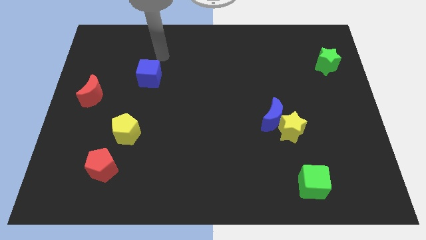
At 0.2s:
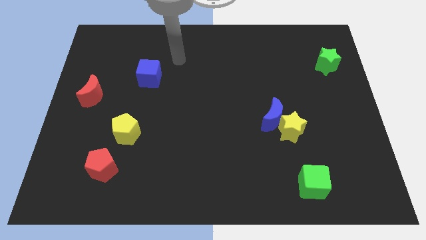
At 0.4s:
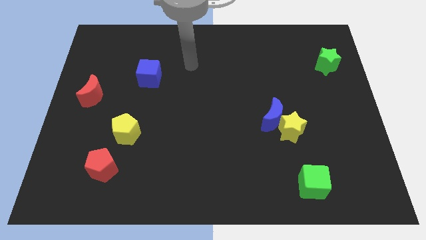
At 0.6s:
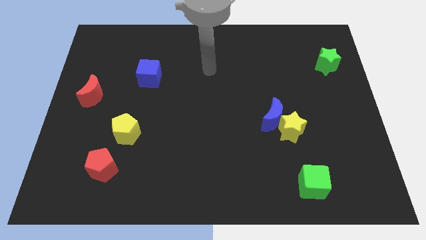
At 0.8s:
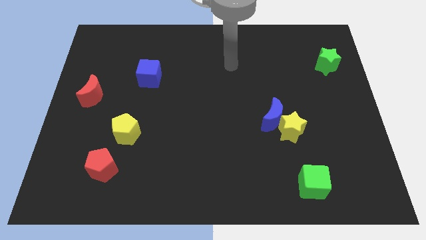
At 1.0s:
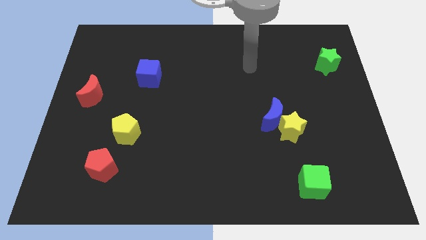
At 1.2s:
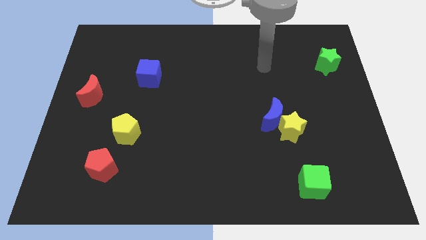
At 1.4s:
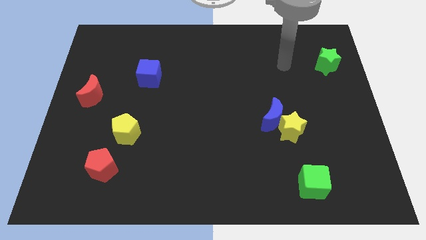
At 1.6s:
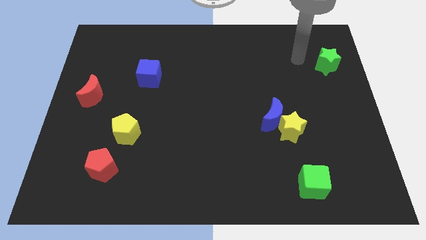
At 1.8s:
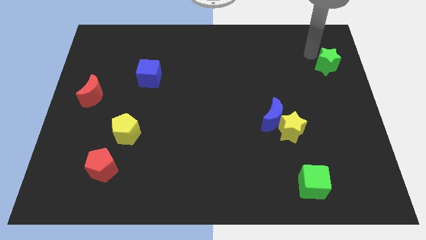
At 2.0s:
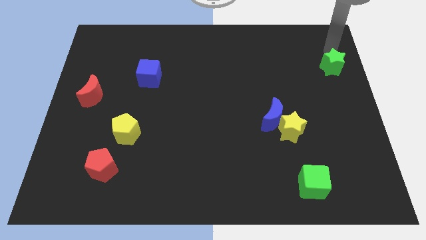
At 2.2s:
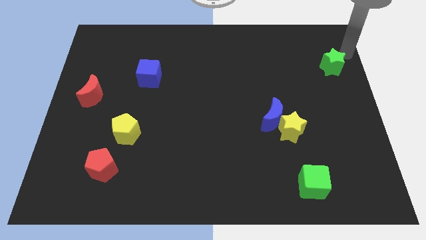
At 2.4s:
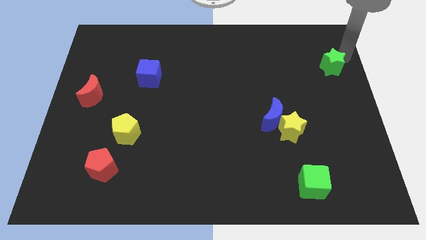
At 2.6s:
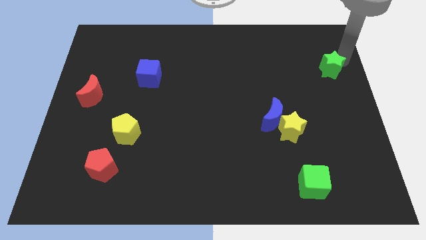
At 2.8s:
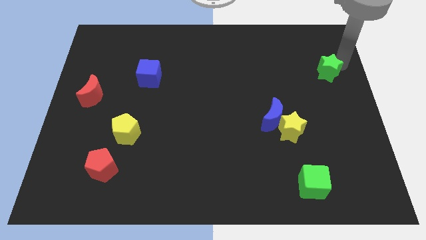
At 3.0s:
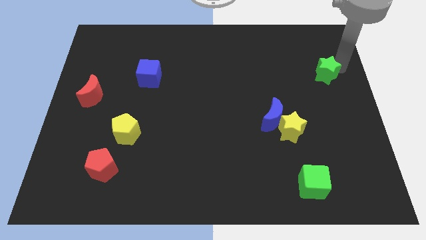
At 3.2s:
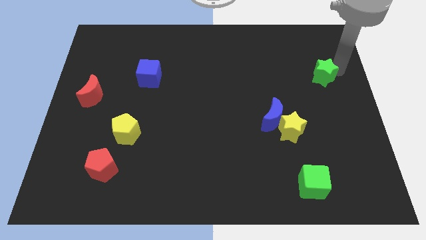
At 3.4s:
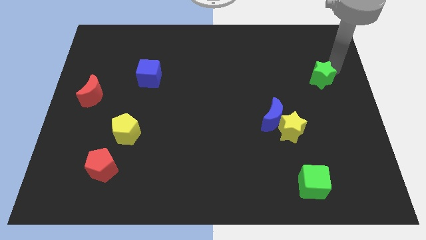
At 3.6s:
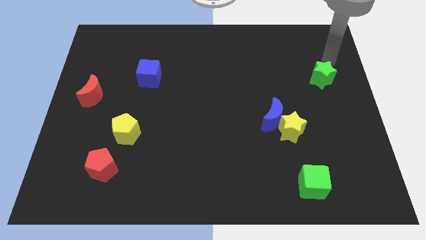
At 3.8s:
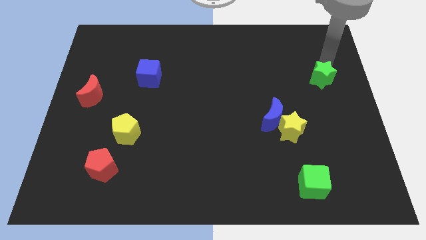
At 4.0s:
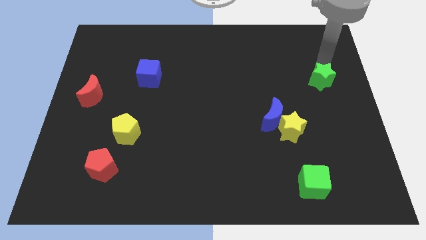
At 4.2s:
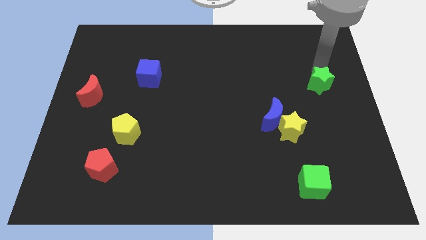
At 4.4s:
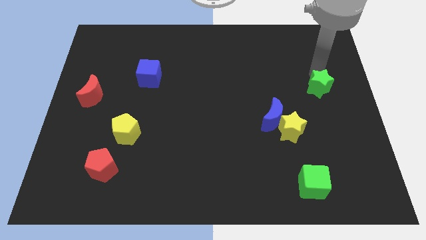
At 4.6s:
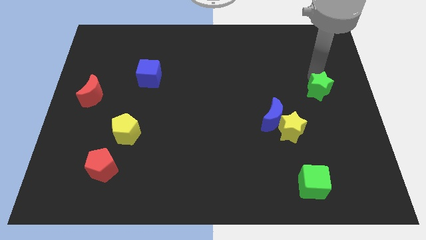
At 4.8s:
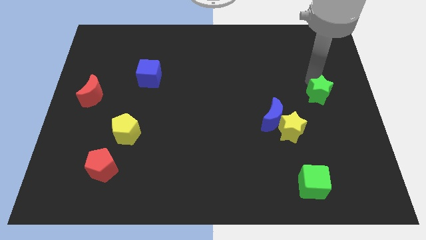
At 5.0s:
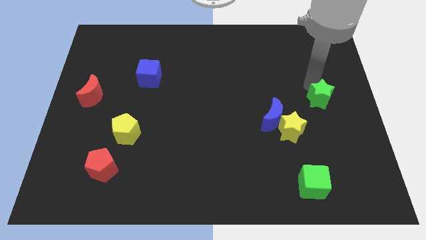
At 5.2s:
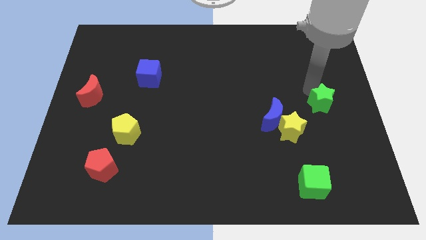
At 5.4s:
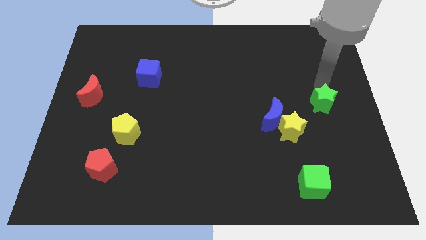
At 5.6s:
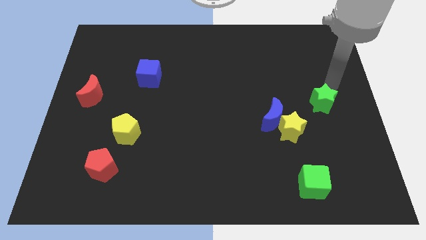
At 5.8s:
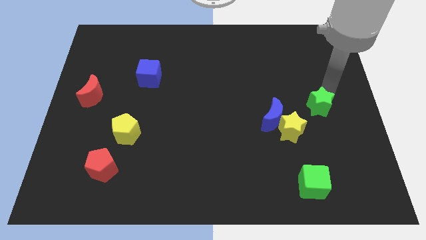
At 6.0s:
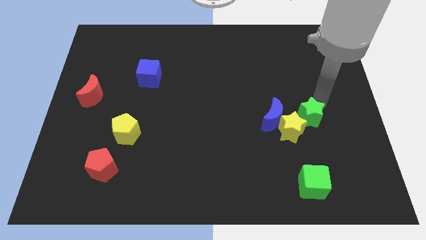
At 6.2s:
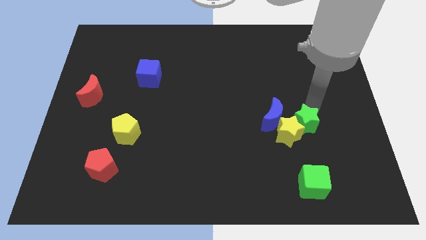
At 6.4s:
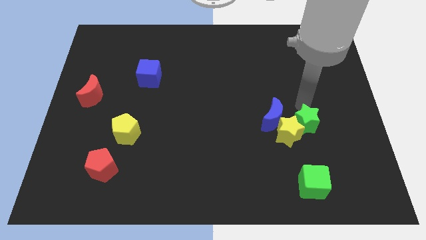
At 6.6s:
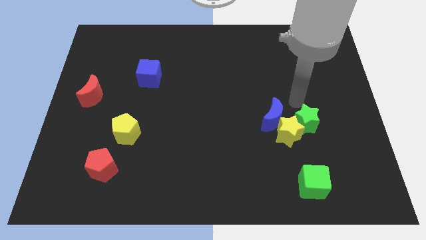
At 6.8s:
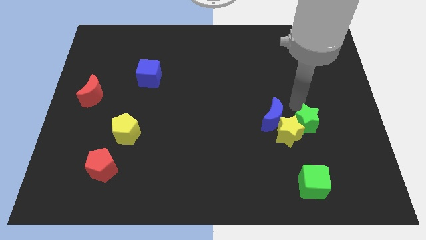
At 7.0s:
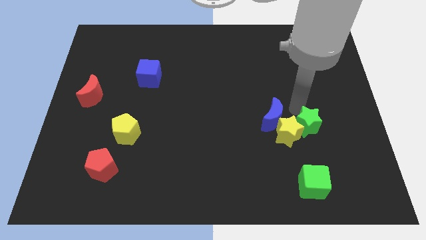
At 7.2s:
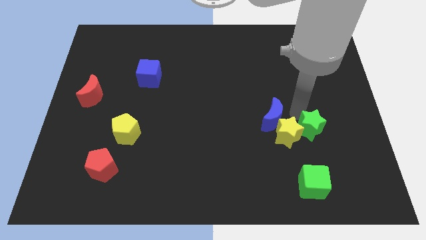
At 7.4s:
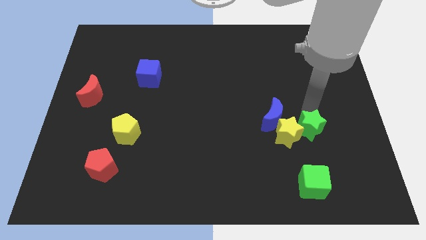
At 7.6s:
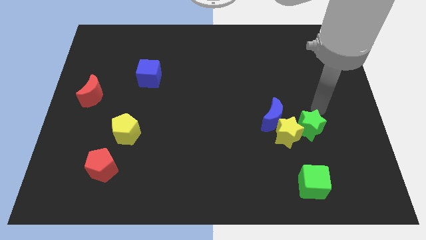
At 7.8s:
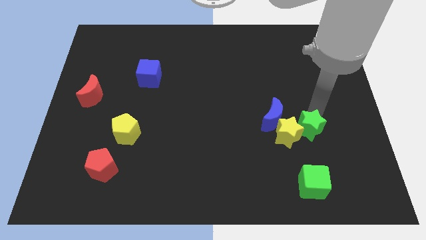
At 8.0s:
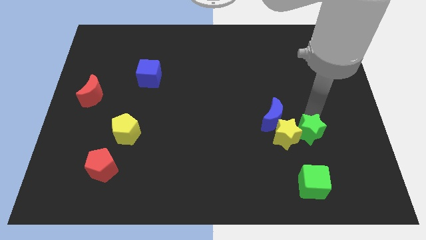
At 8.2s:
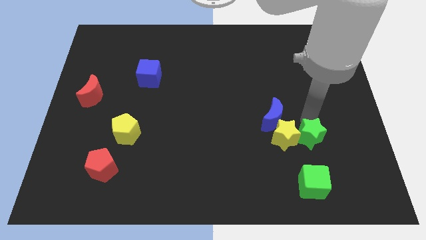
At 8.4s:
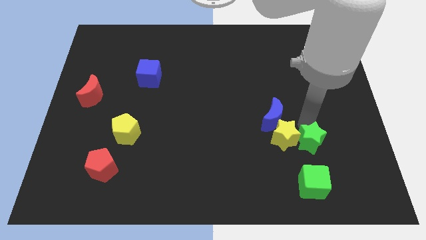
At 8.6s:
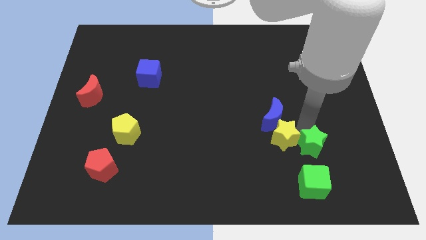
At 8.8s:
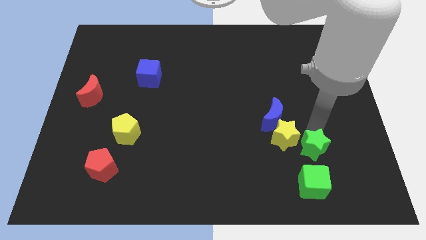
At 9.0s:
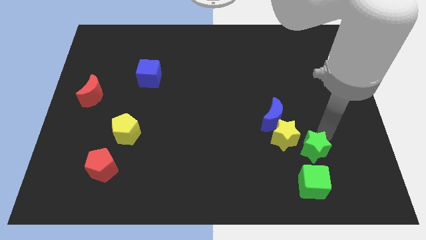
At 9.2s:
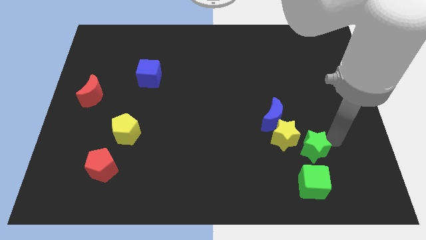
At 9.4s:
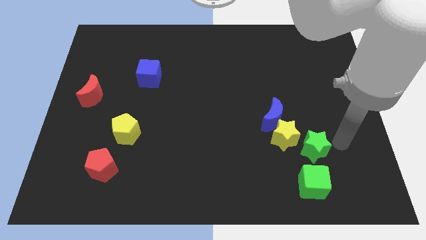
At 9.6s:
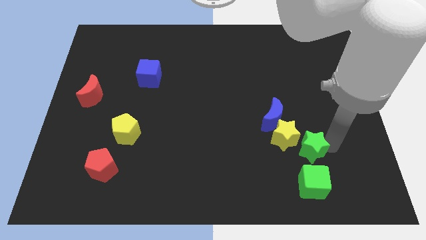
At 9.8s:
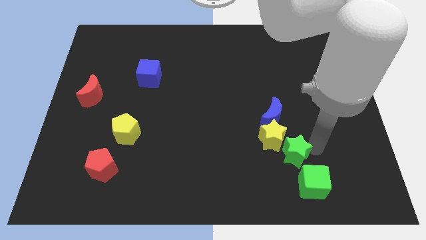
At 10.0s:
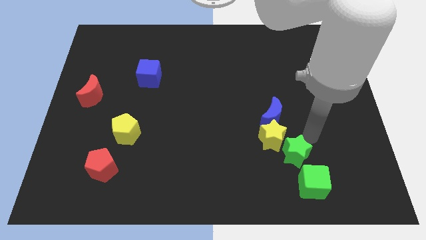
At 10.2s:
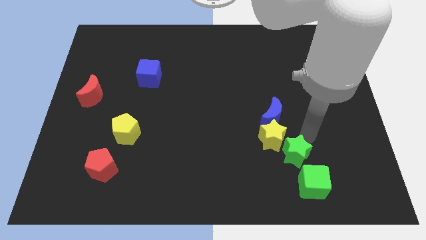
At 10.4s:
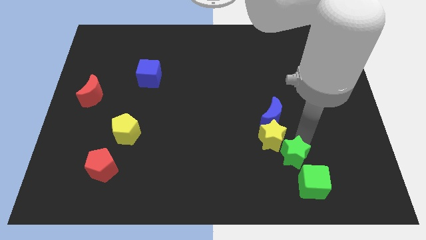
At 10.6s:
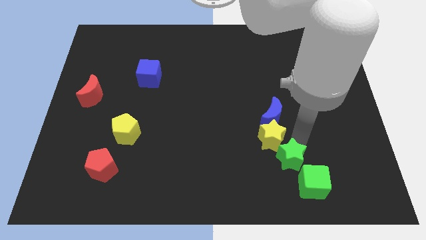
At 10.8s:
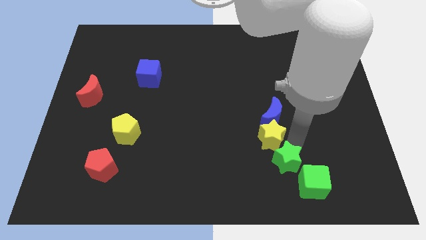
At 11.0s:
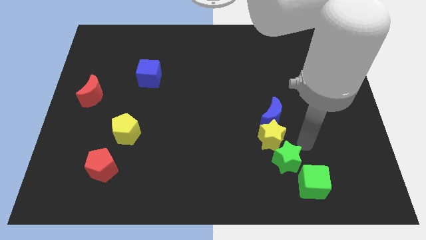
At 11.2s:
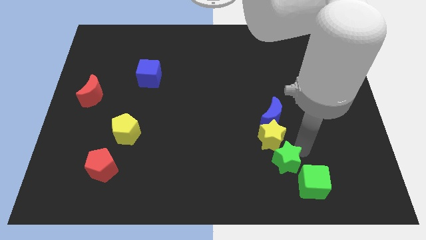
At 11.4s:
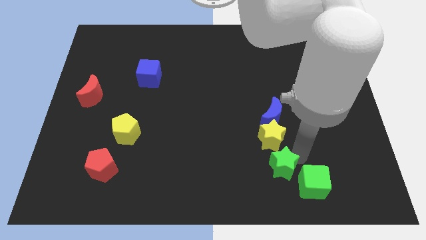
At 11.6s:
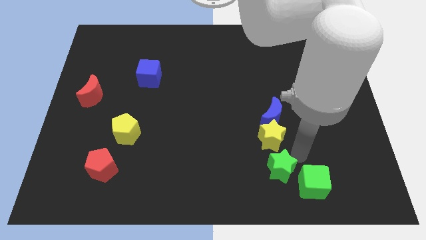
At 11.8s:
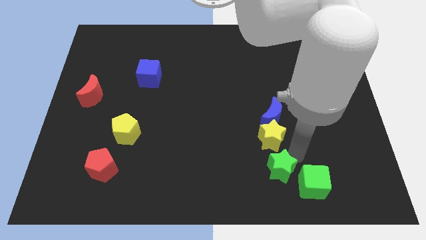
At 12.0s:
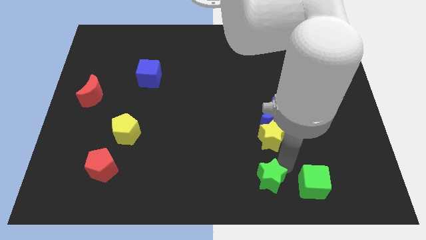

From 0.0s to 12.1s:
move the green star to the bottom side

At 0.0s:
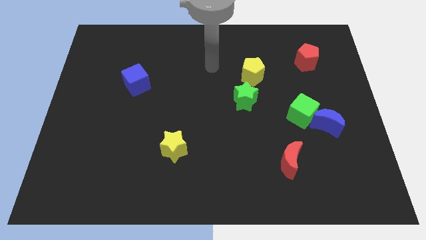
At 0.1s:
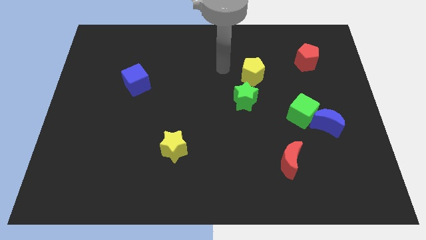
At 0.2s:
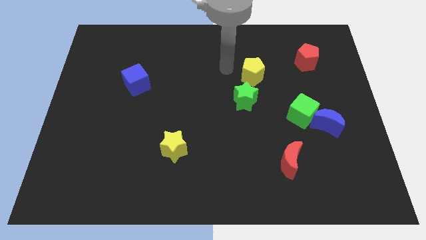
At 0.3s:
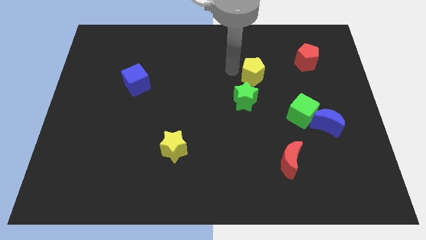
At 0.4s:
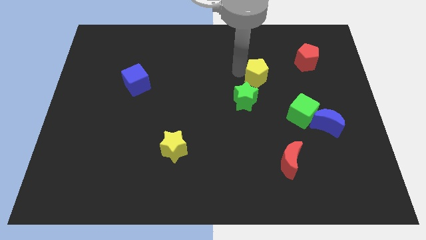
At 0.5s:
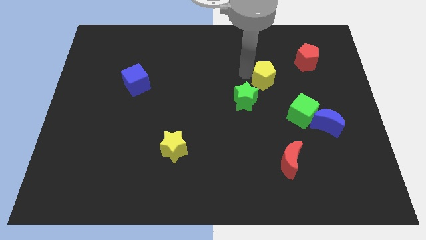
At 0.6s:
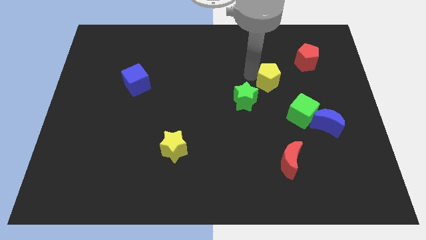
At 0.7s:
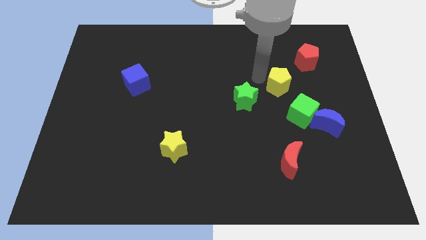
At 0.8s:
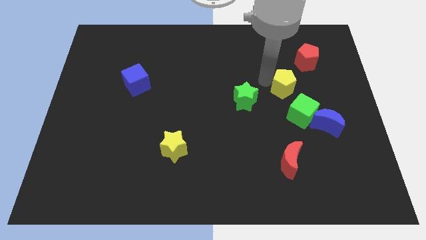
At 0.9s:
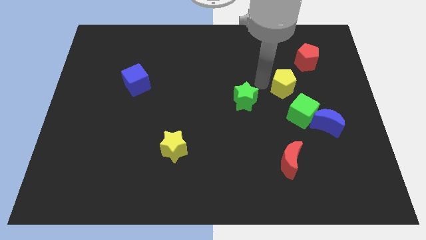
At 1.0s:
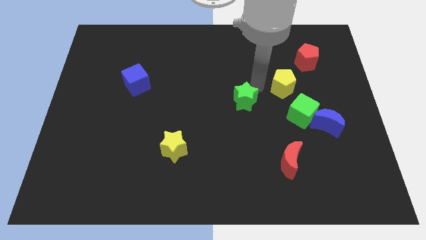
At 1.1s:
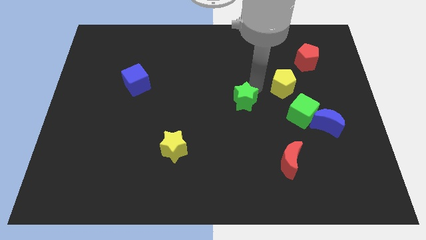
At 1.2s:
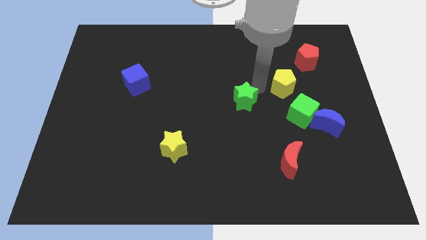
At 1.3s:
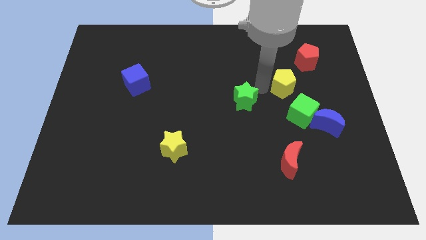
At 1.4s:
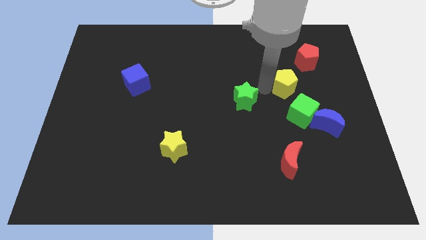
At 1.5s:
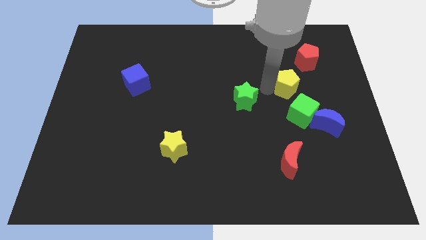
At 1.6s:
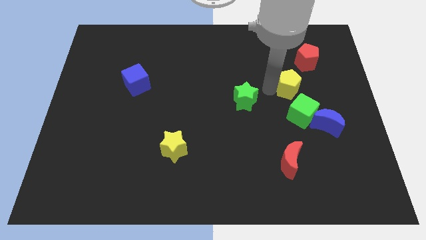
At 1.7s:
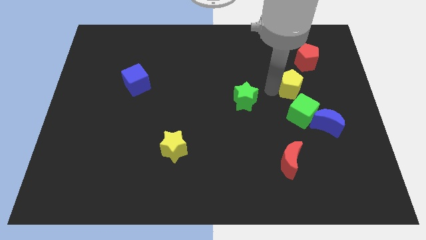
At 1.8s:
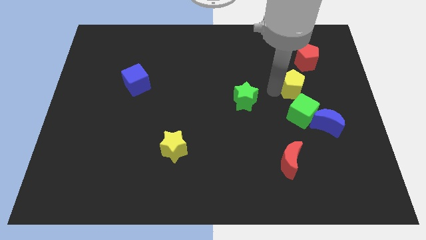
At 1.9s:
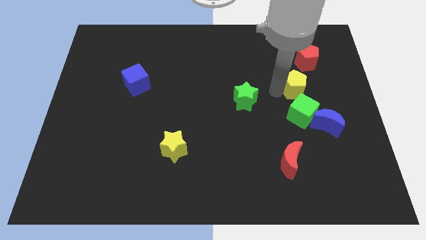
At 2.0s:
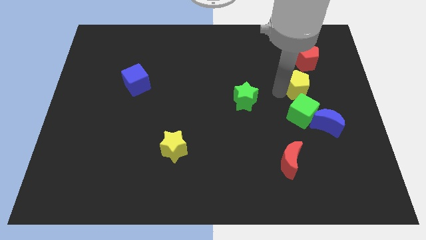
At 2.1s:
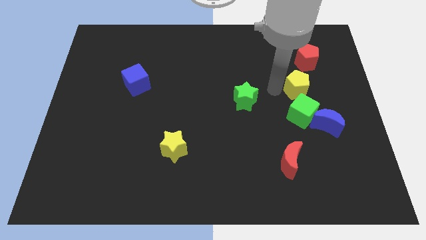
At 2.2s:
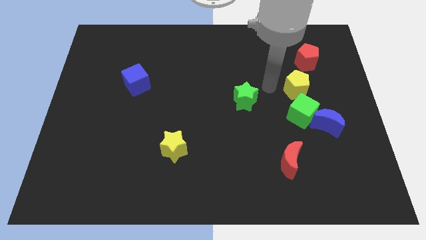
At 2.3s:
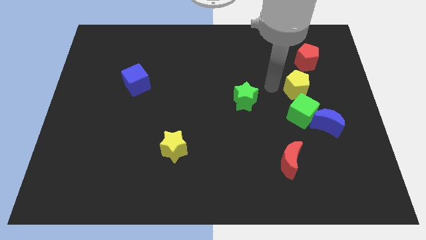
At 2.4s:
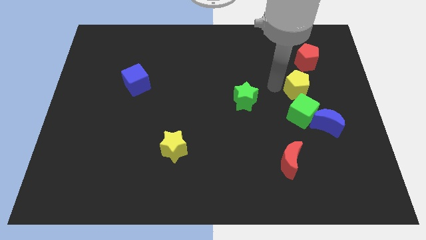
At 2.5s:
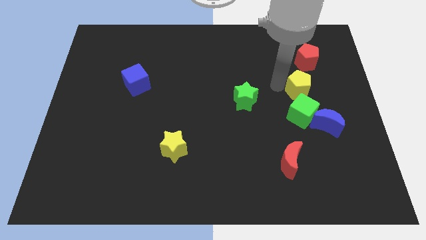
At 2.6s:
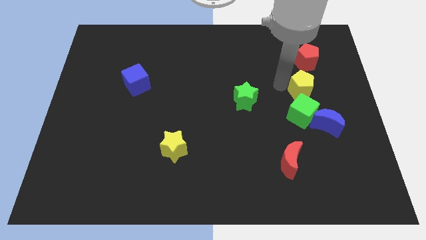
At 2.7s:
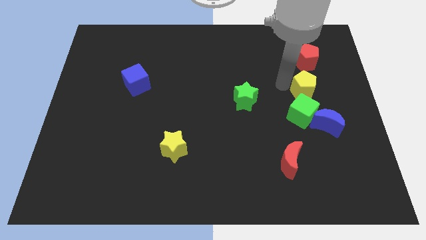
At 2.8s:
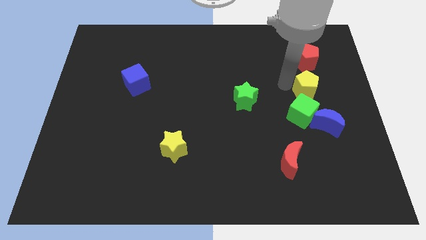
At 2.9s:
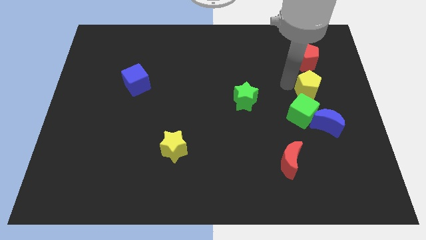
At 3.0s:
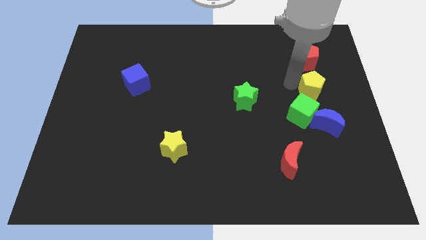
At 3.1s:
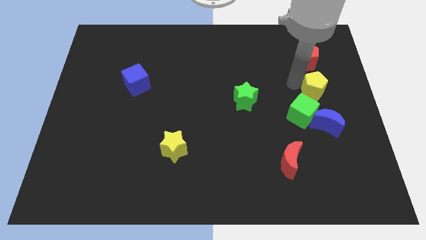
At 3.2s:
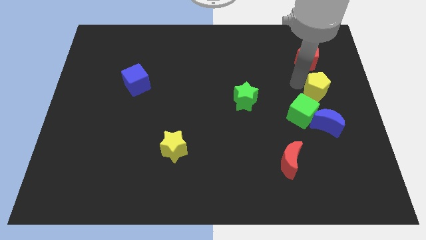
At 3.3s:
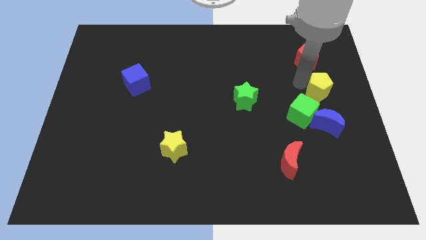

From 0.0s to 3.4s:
push the yellow pentagon to the right side
